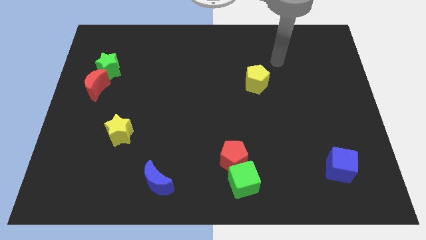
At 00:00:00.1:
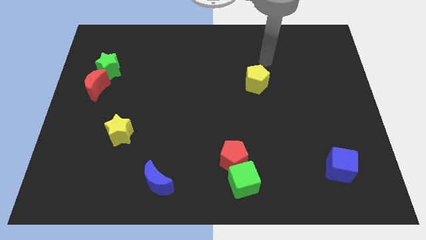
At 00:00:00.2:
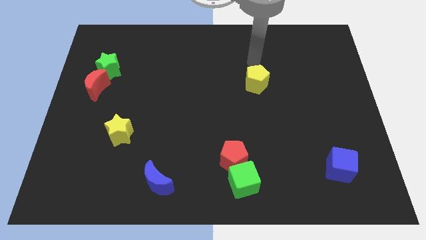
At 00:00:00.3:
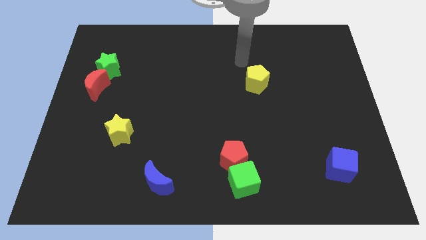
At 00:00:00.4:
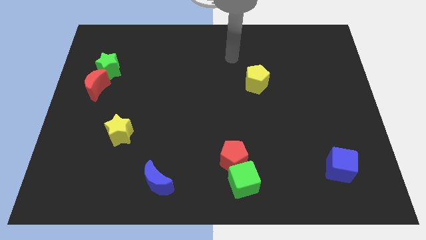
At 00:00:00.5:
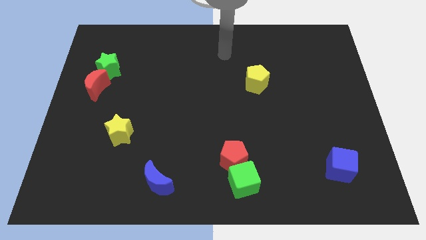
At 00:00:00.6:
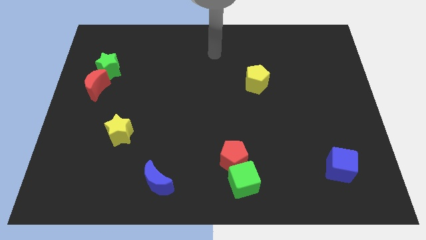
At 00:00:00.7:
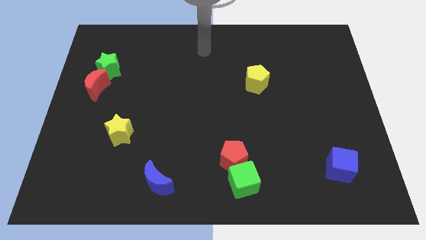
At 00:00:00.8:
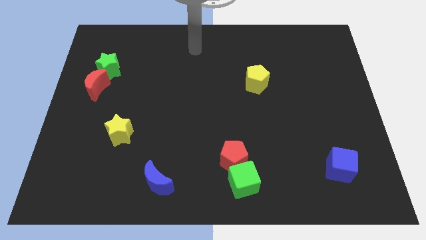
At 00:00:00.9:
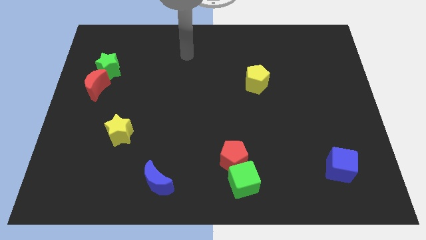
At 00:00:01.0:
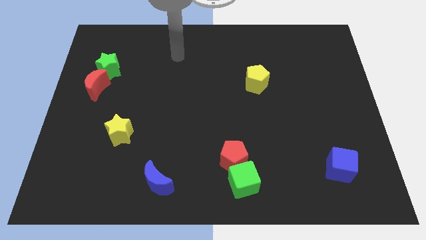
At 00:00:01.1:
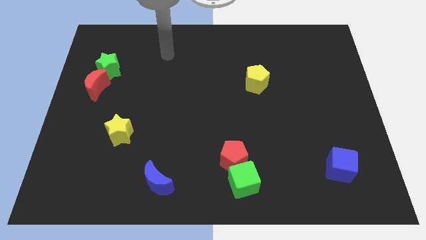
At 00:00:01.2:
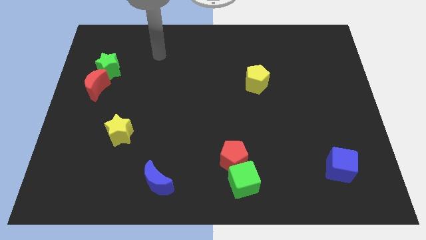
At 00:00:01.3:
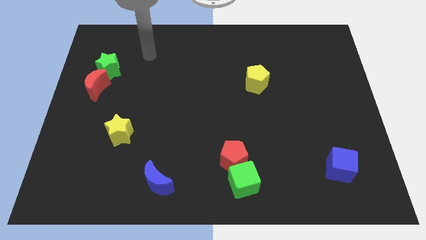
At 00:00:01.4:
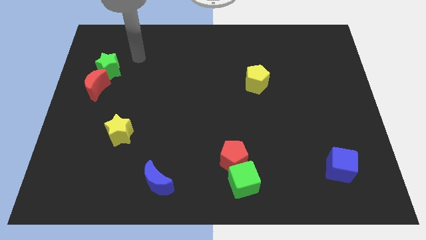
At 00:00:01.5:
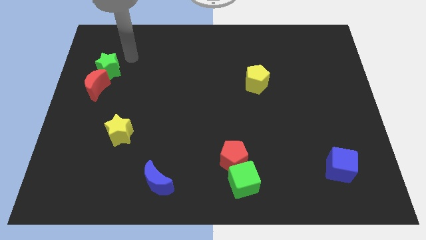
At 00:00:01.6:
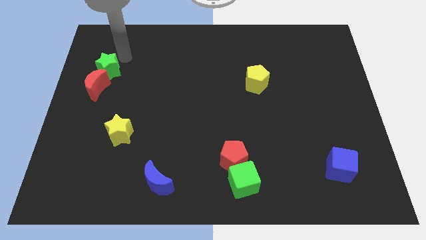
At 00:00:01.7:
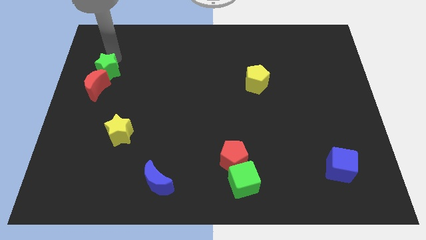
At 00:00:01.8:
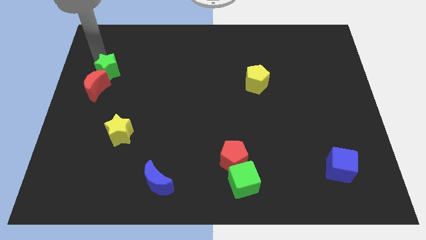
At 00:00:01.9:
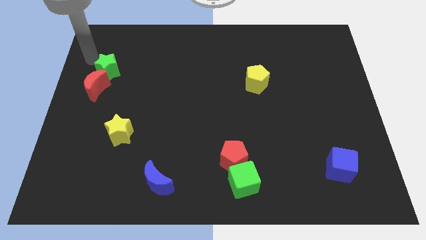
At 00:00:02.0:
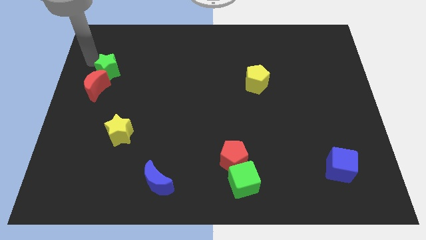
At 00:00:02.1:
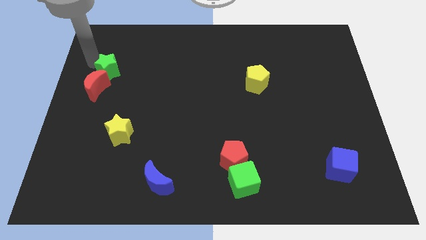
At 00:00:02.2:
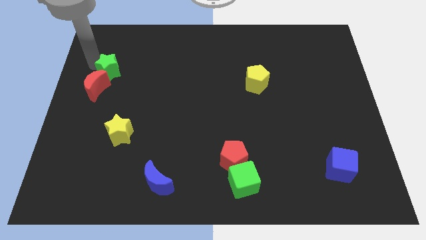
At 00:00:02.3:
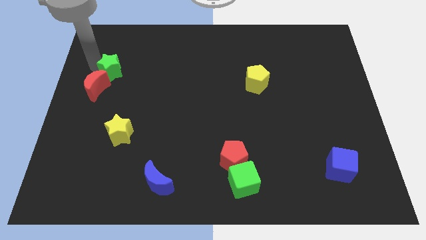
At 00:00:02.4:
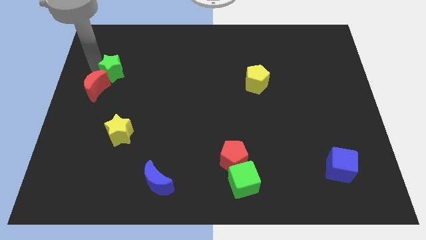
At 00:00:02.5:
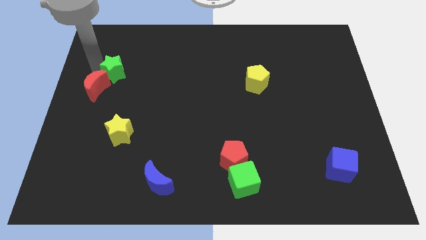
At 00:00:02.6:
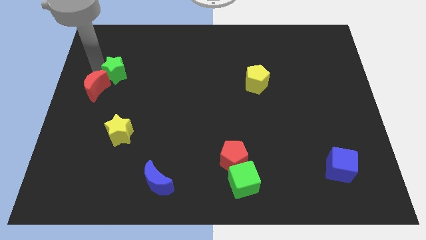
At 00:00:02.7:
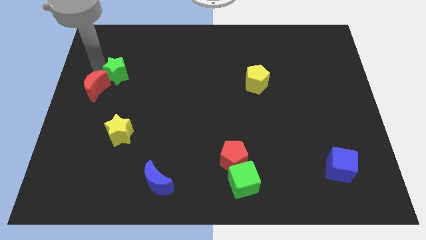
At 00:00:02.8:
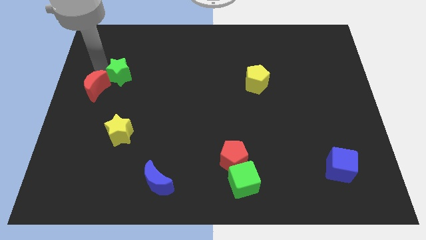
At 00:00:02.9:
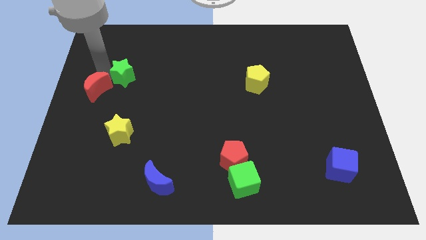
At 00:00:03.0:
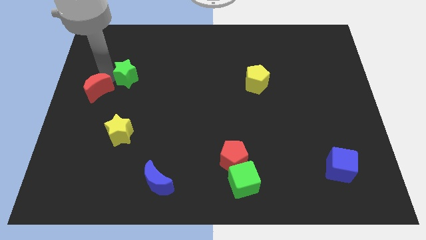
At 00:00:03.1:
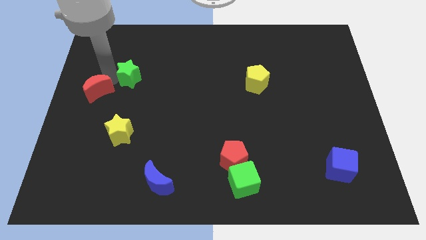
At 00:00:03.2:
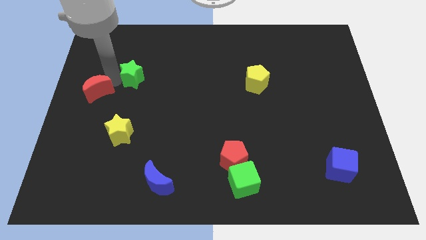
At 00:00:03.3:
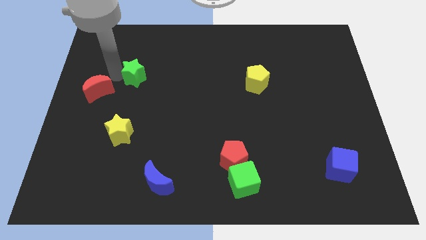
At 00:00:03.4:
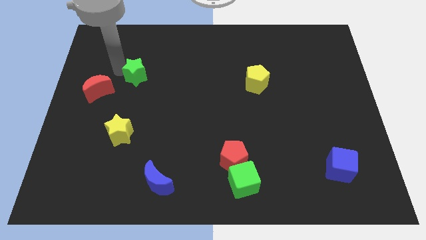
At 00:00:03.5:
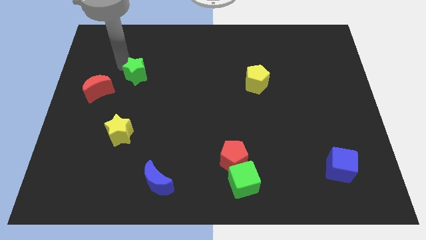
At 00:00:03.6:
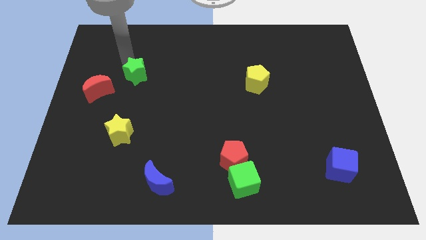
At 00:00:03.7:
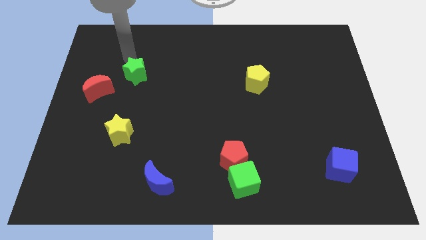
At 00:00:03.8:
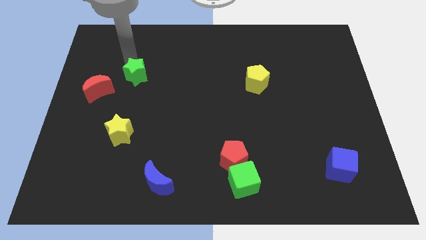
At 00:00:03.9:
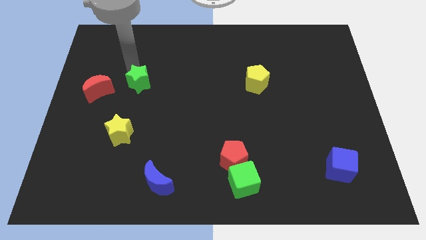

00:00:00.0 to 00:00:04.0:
push the green star slightly down and then to the right

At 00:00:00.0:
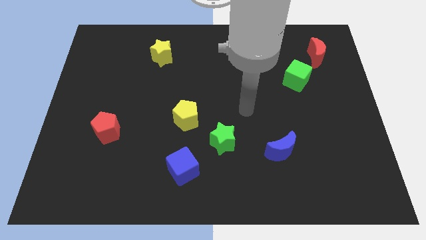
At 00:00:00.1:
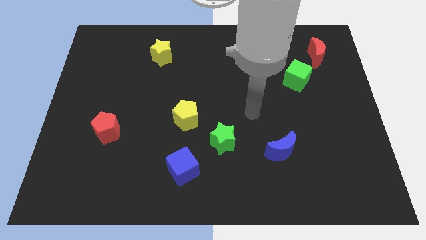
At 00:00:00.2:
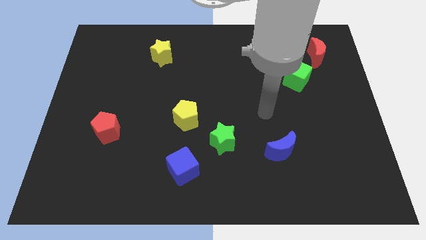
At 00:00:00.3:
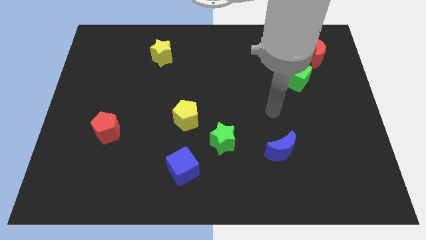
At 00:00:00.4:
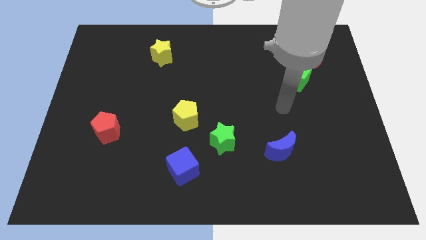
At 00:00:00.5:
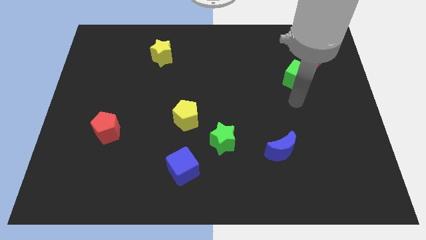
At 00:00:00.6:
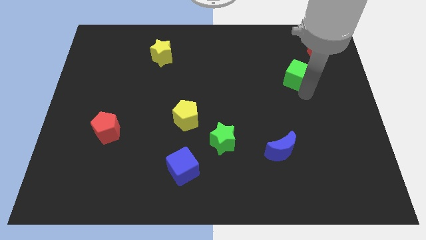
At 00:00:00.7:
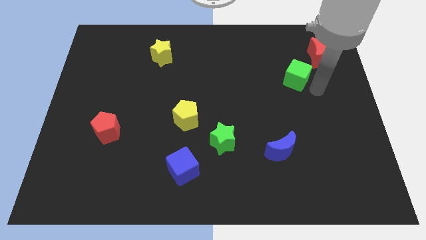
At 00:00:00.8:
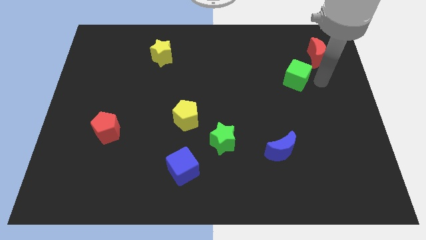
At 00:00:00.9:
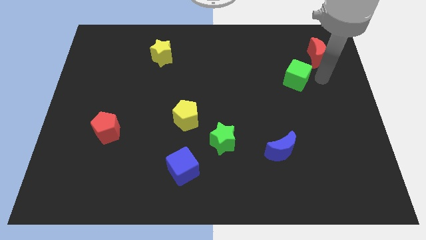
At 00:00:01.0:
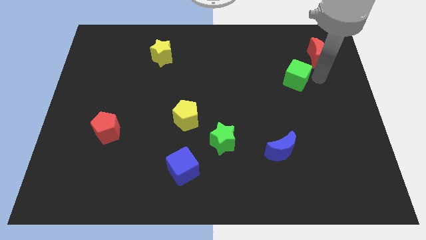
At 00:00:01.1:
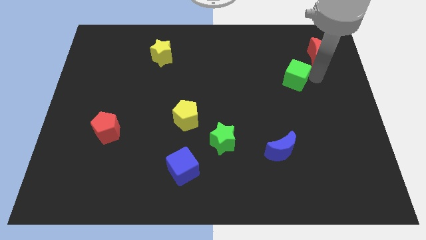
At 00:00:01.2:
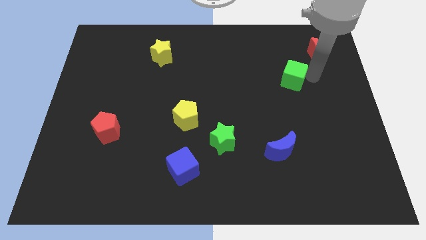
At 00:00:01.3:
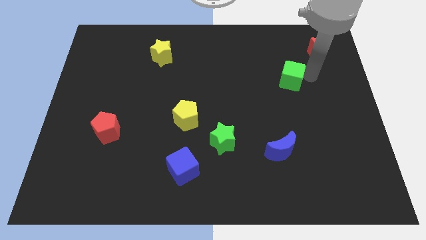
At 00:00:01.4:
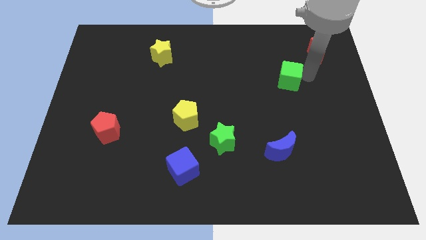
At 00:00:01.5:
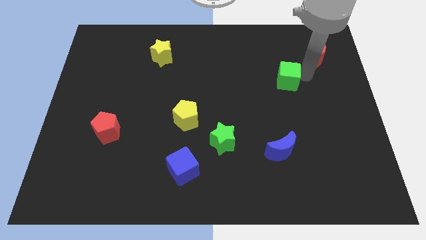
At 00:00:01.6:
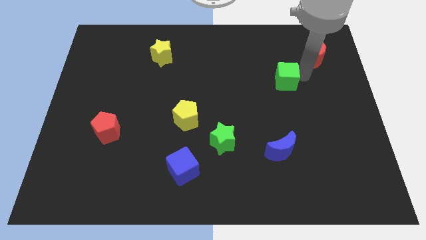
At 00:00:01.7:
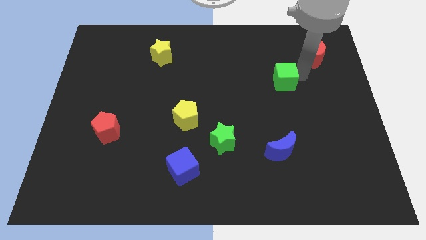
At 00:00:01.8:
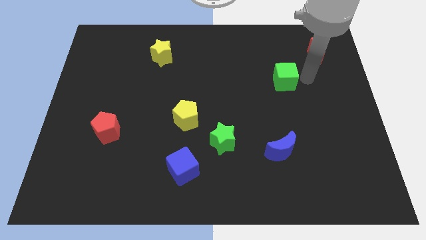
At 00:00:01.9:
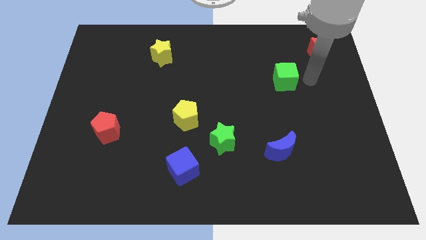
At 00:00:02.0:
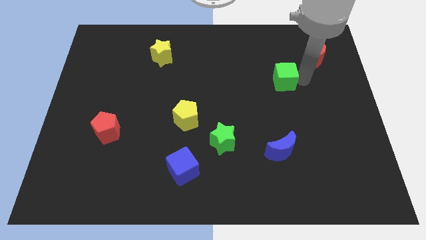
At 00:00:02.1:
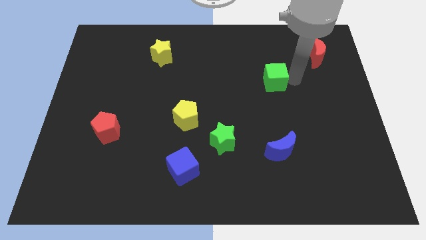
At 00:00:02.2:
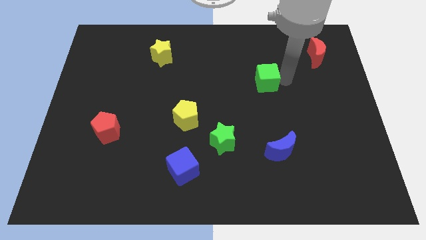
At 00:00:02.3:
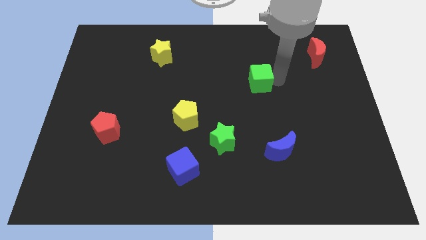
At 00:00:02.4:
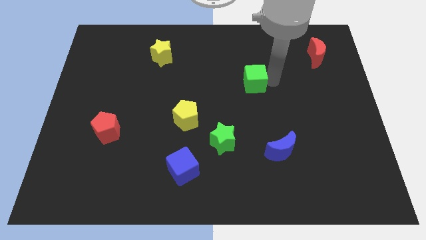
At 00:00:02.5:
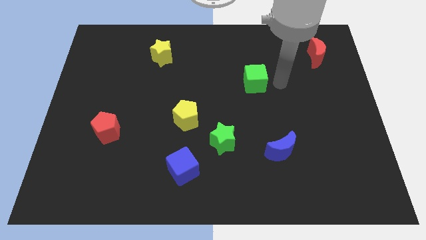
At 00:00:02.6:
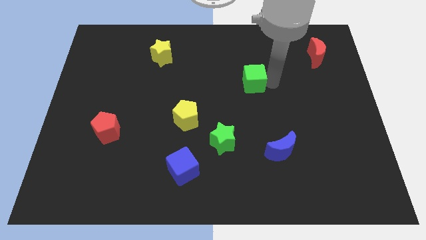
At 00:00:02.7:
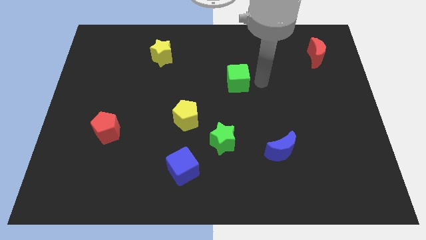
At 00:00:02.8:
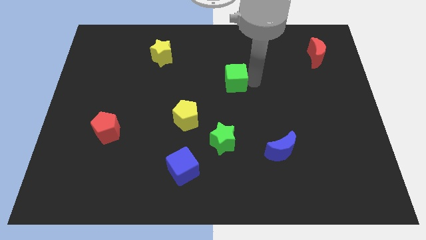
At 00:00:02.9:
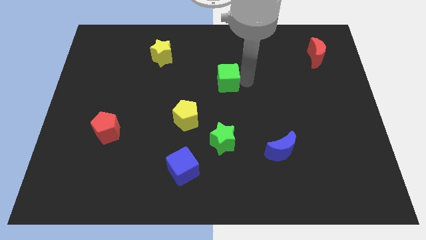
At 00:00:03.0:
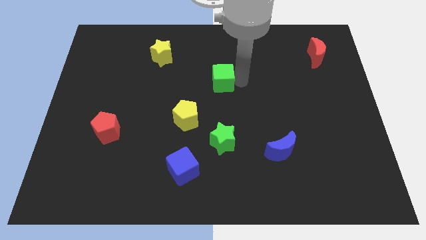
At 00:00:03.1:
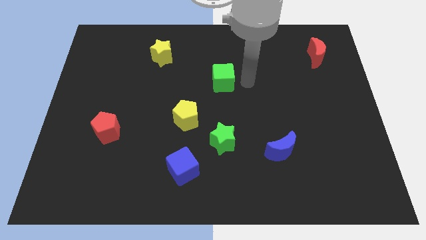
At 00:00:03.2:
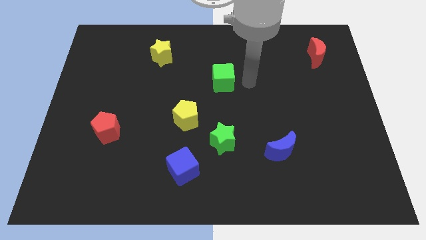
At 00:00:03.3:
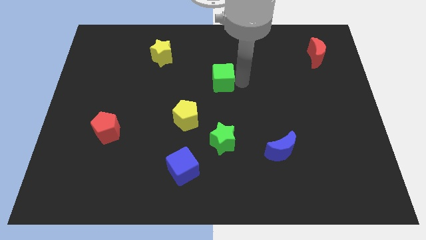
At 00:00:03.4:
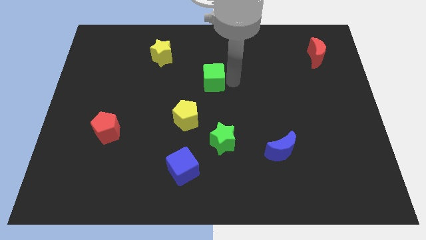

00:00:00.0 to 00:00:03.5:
push the green cube to the left

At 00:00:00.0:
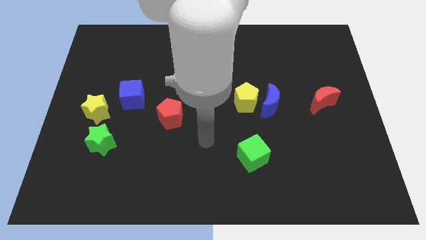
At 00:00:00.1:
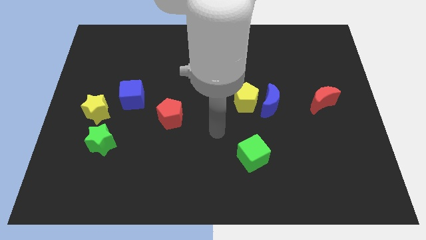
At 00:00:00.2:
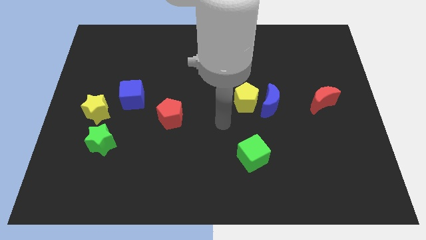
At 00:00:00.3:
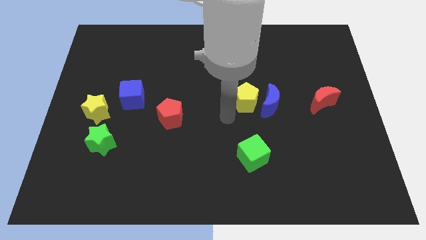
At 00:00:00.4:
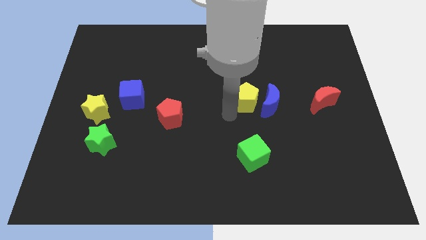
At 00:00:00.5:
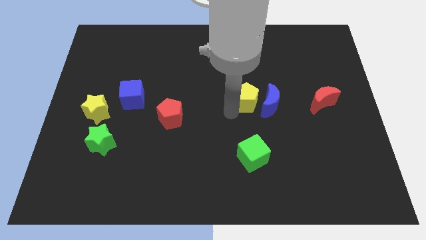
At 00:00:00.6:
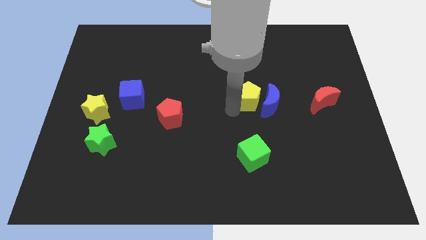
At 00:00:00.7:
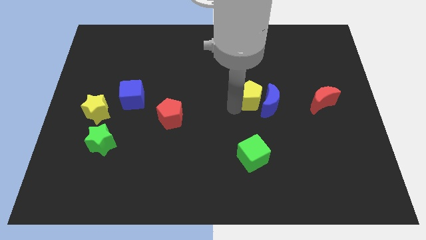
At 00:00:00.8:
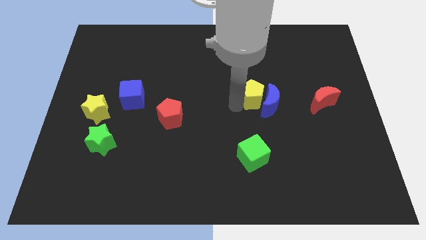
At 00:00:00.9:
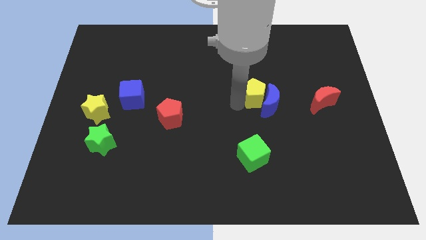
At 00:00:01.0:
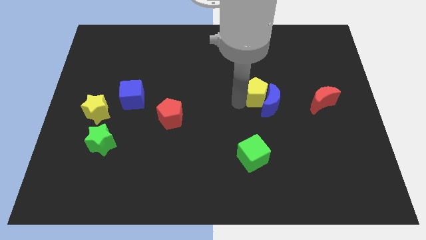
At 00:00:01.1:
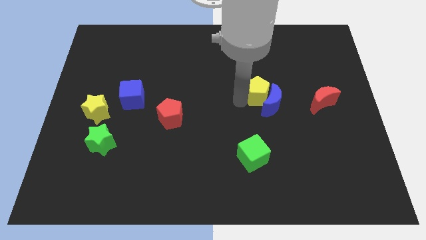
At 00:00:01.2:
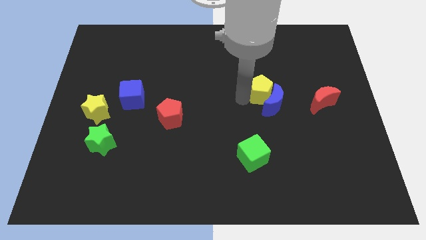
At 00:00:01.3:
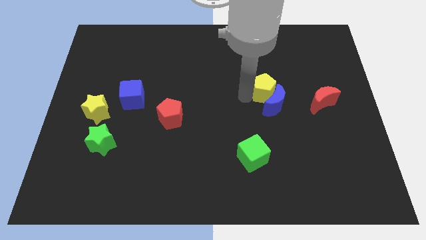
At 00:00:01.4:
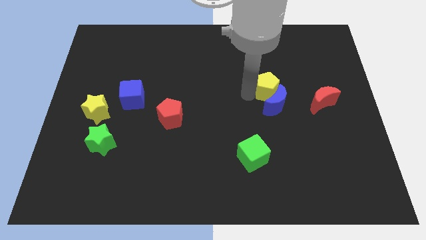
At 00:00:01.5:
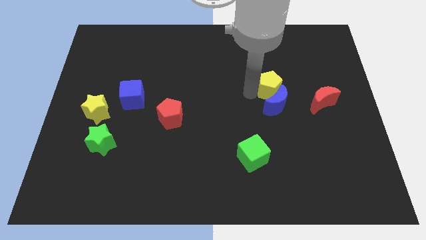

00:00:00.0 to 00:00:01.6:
push the yellow pentagon a little upwards and to the right diagonally
